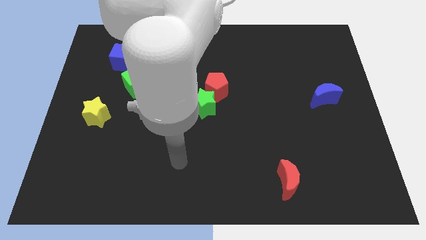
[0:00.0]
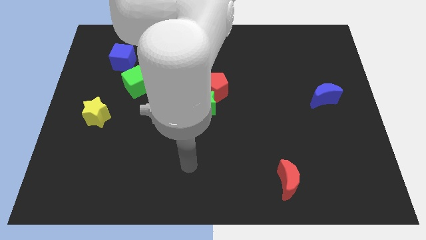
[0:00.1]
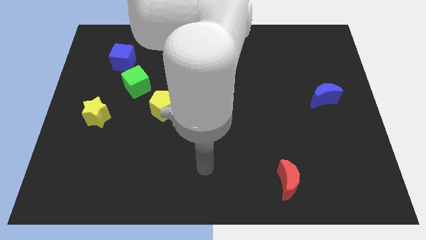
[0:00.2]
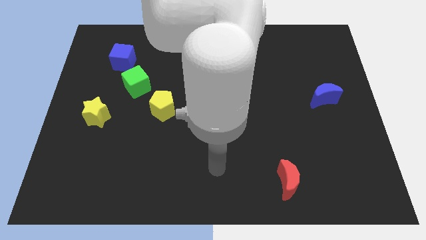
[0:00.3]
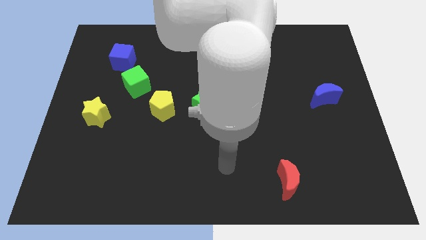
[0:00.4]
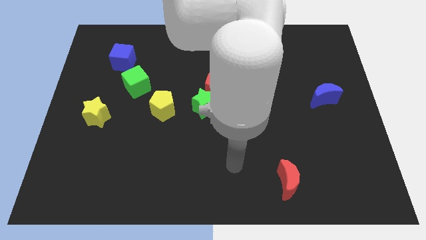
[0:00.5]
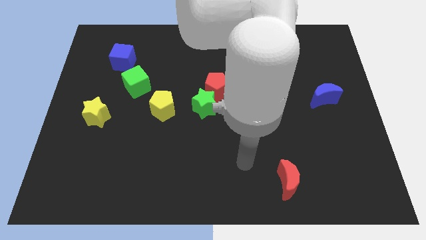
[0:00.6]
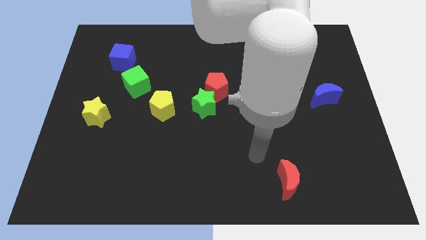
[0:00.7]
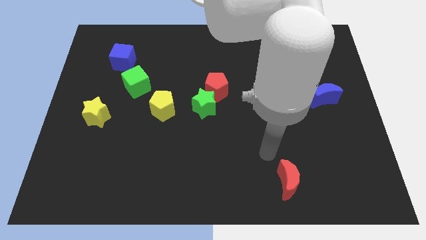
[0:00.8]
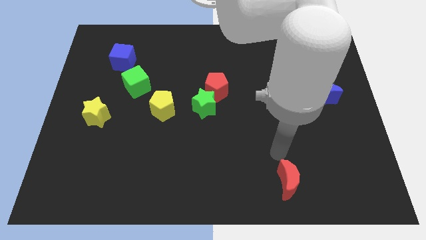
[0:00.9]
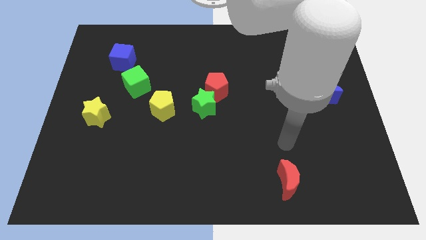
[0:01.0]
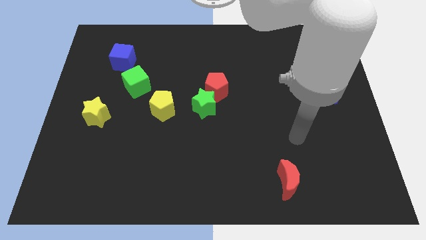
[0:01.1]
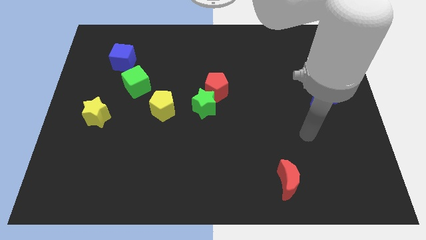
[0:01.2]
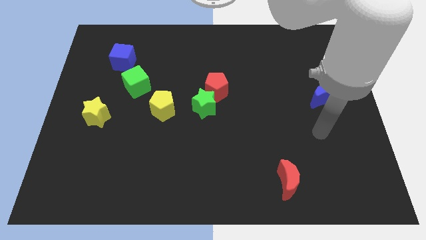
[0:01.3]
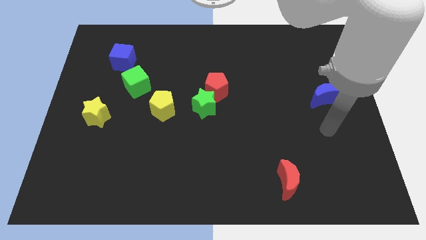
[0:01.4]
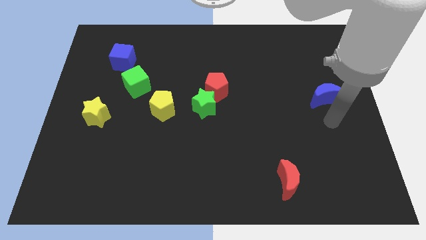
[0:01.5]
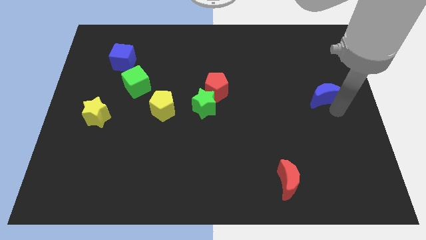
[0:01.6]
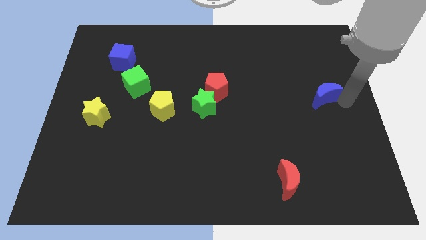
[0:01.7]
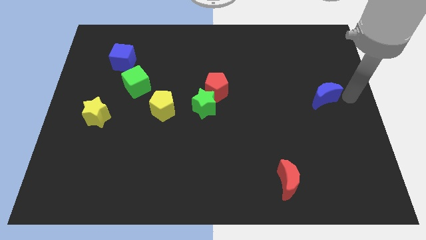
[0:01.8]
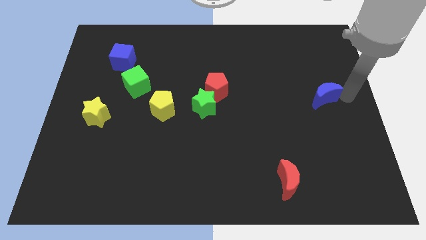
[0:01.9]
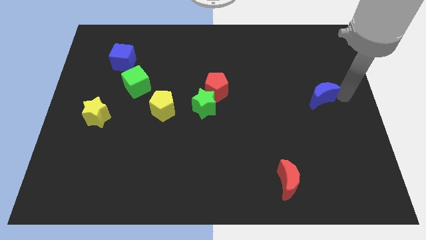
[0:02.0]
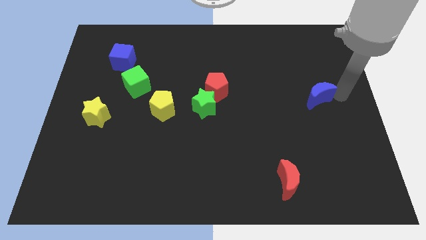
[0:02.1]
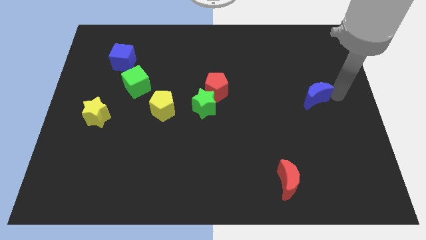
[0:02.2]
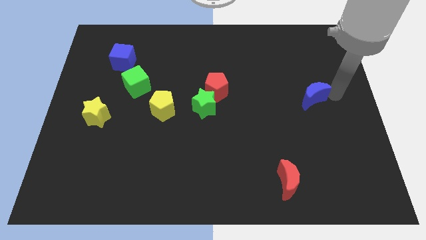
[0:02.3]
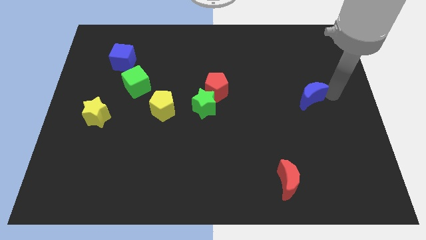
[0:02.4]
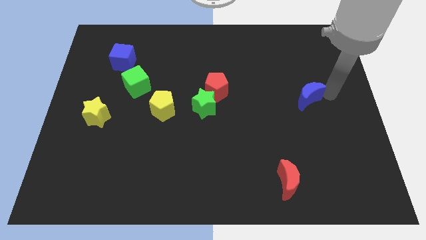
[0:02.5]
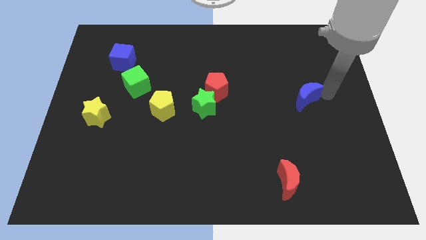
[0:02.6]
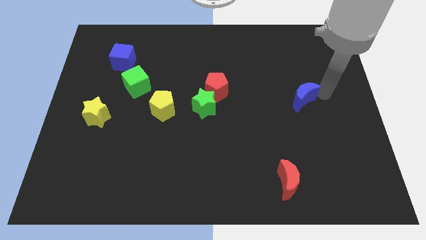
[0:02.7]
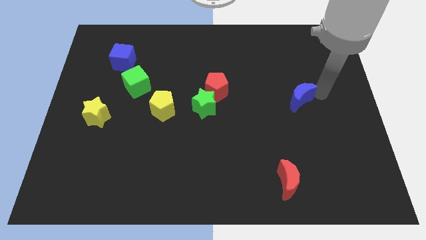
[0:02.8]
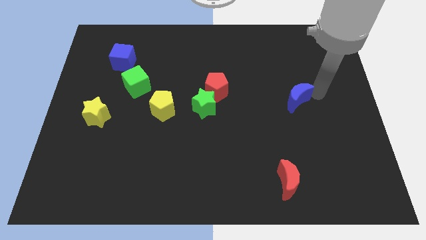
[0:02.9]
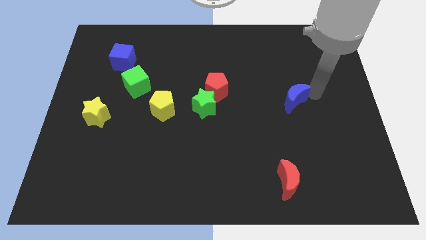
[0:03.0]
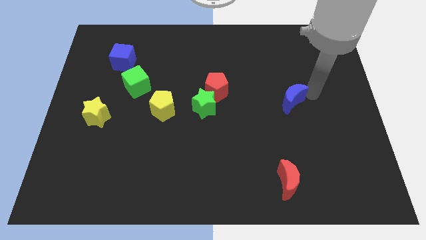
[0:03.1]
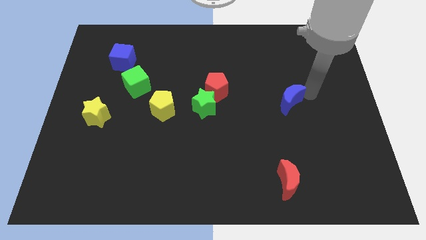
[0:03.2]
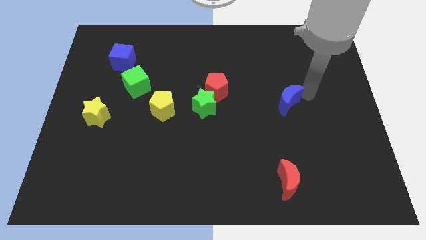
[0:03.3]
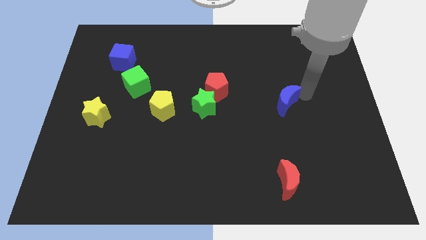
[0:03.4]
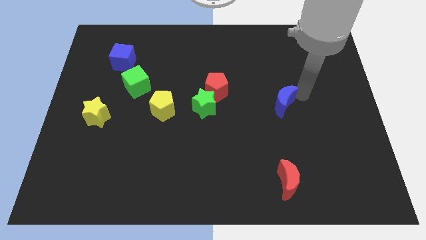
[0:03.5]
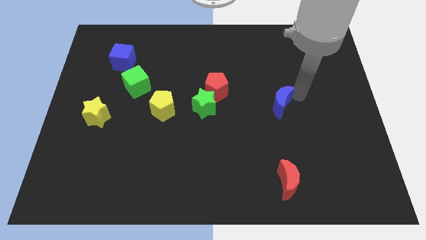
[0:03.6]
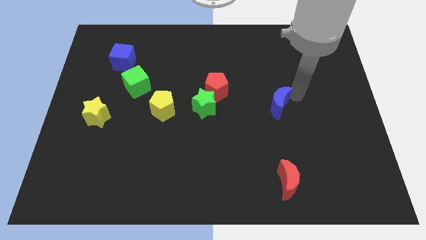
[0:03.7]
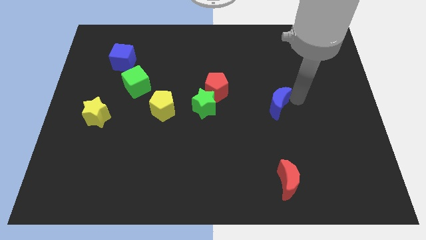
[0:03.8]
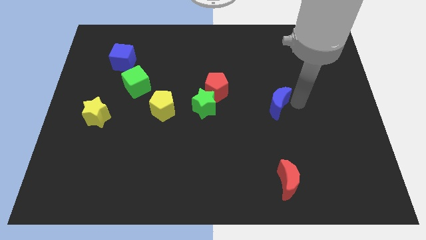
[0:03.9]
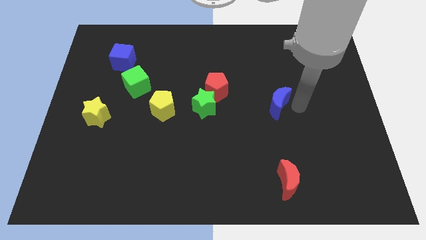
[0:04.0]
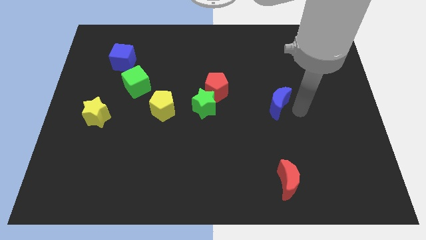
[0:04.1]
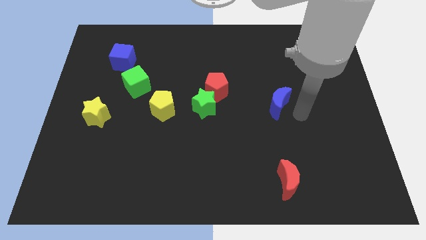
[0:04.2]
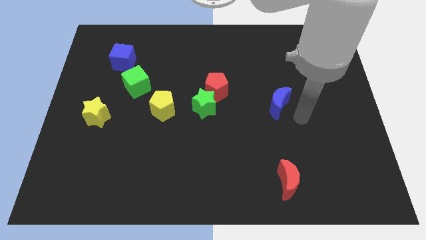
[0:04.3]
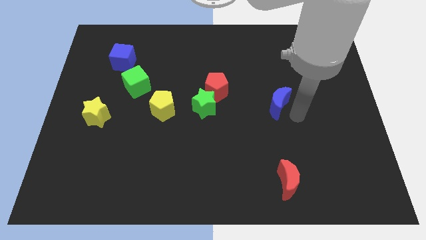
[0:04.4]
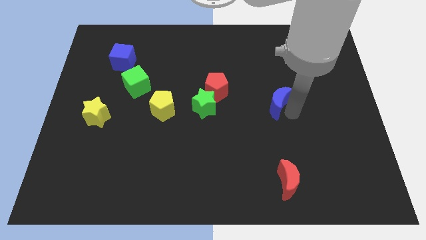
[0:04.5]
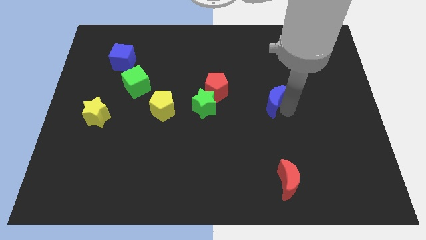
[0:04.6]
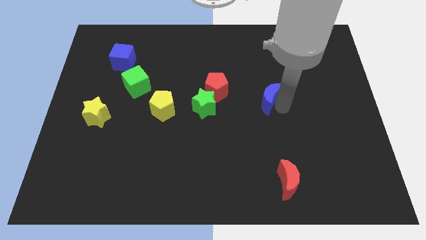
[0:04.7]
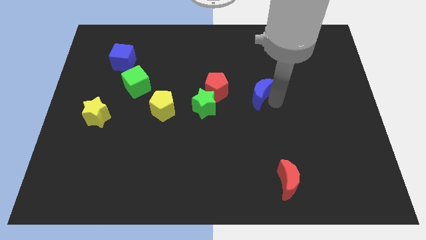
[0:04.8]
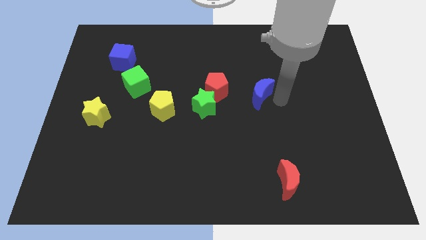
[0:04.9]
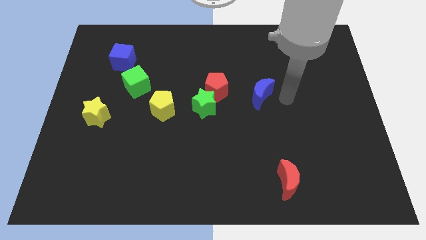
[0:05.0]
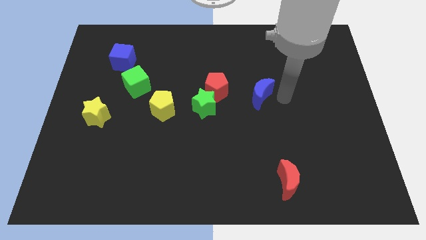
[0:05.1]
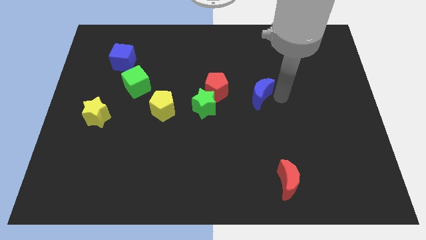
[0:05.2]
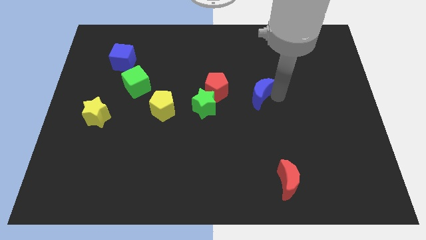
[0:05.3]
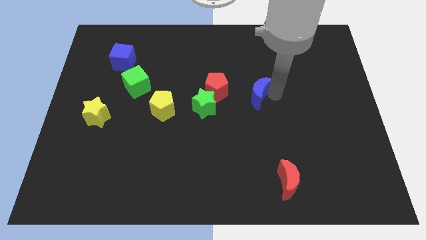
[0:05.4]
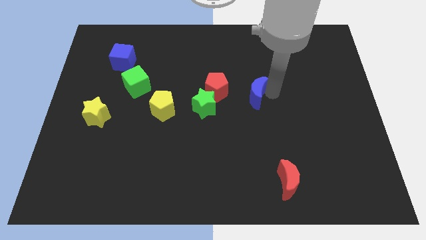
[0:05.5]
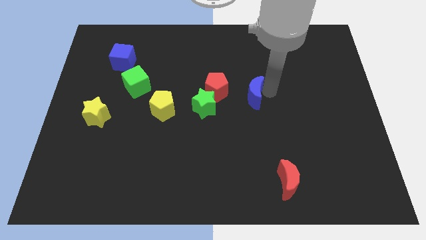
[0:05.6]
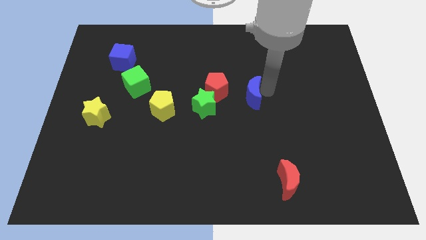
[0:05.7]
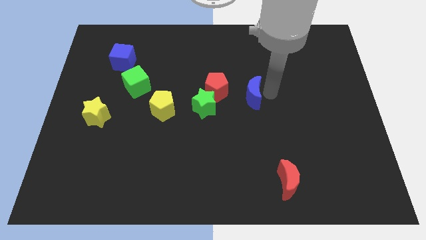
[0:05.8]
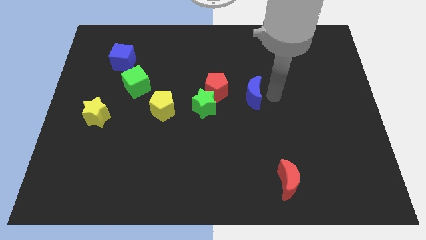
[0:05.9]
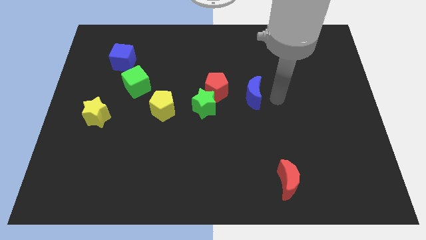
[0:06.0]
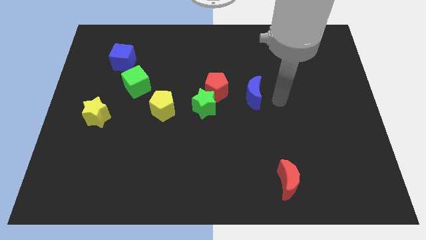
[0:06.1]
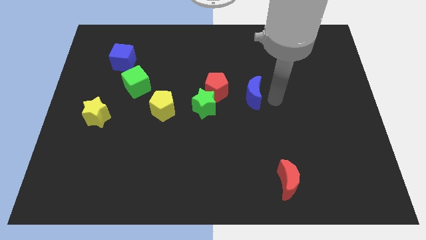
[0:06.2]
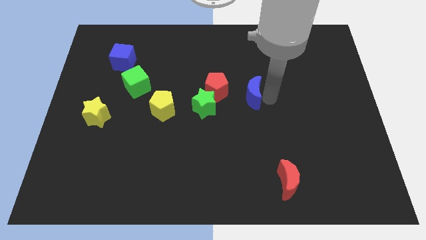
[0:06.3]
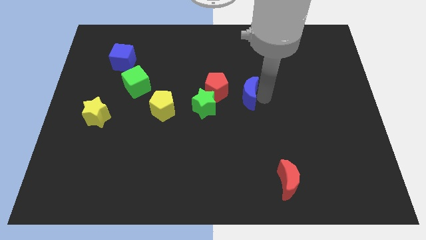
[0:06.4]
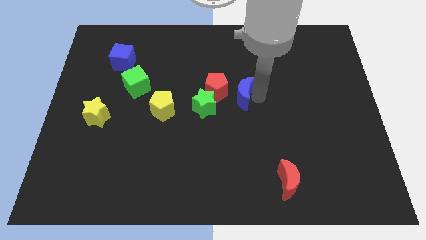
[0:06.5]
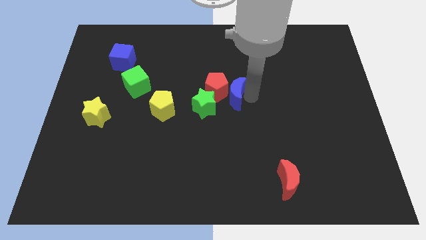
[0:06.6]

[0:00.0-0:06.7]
slide the blue moon close to the red pentagon

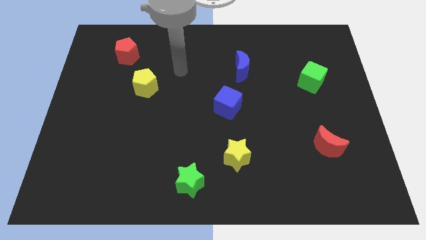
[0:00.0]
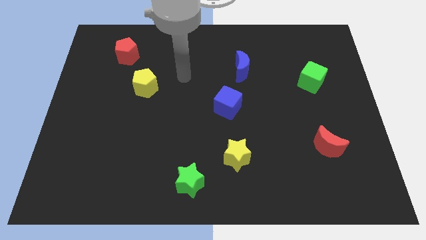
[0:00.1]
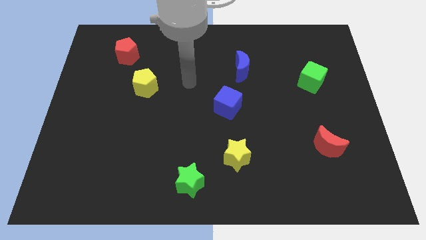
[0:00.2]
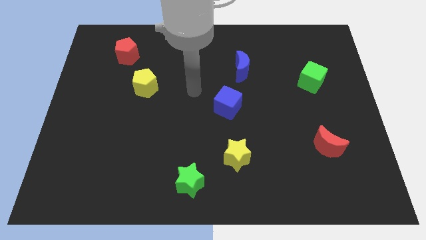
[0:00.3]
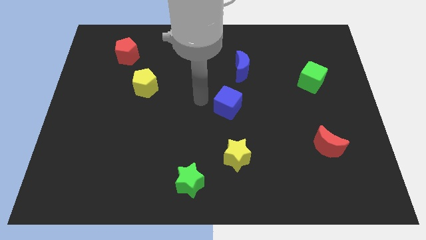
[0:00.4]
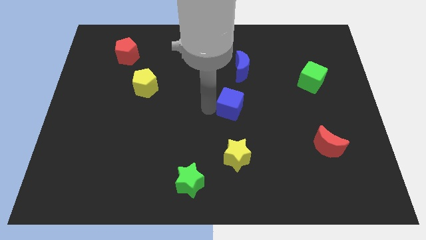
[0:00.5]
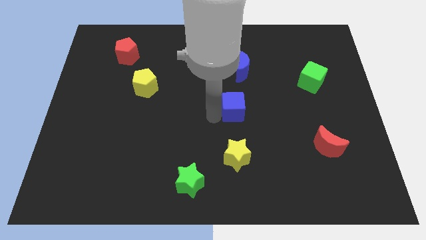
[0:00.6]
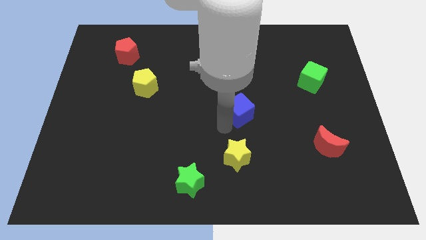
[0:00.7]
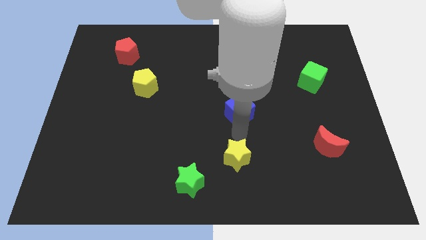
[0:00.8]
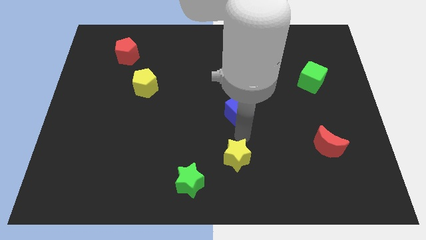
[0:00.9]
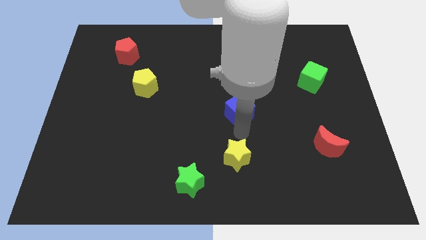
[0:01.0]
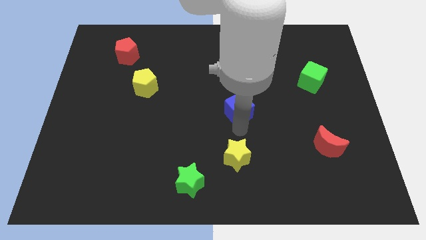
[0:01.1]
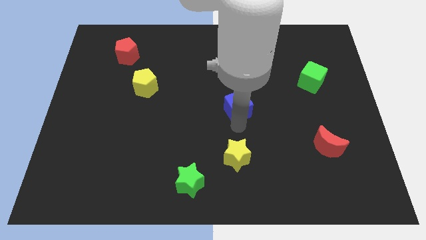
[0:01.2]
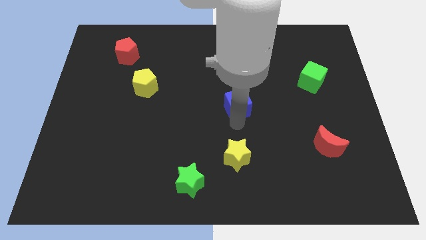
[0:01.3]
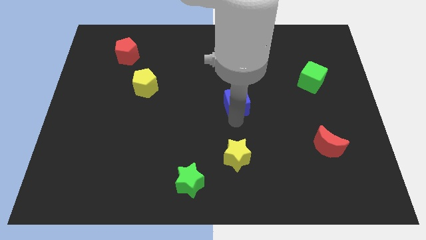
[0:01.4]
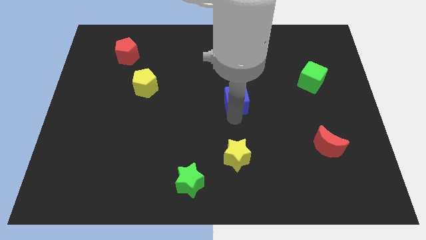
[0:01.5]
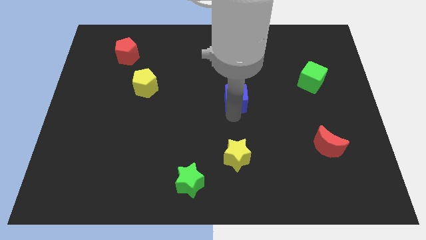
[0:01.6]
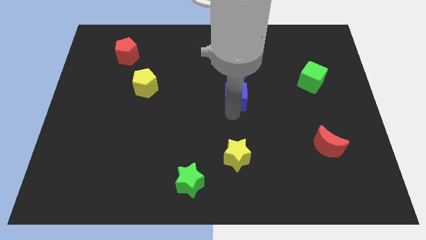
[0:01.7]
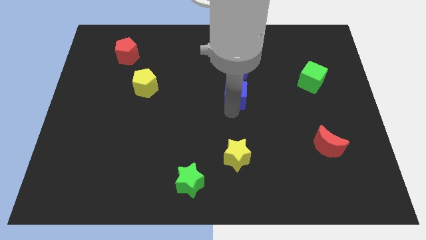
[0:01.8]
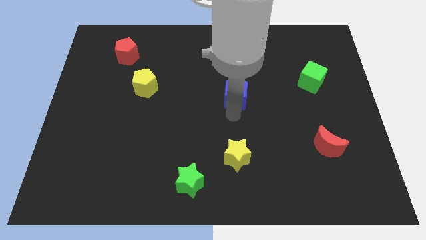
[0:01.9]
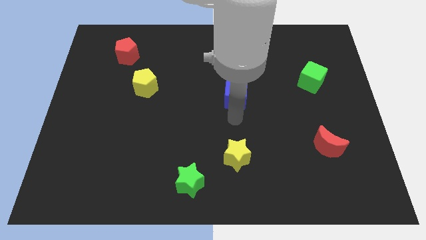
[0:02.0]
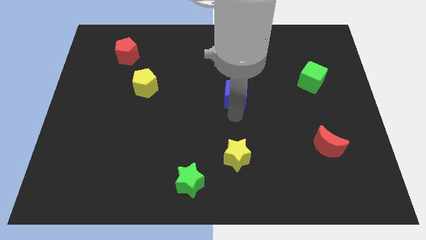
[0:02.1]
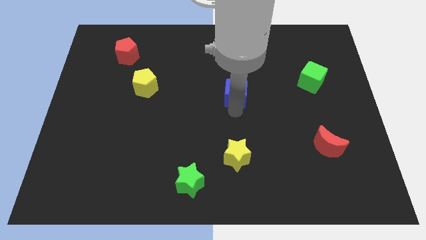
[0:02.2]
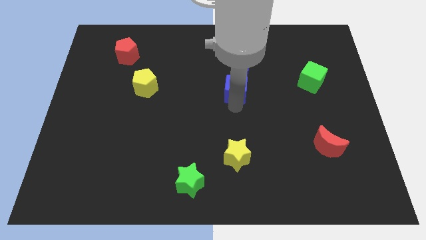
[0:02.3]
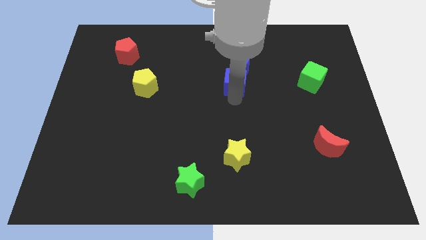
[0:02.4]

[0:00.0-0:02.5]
put the blue cube to the blue moon
